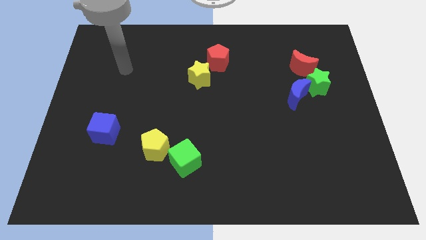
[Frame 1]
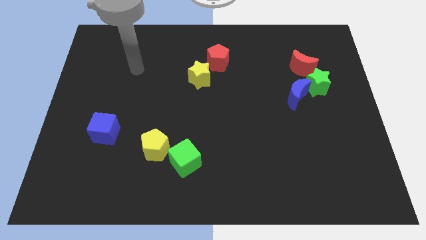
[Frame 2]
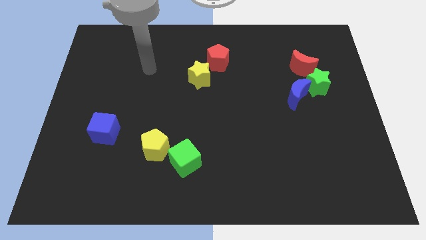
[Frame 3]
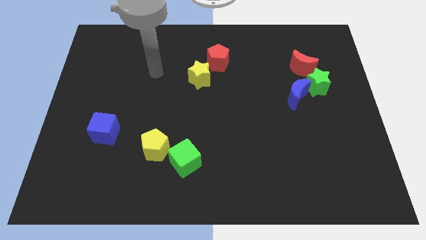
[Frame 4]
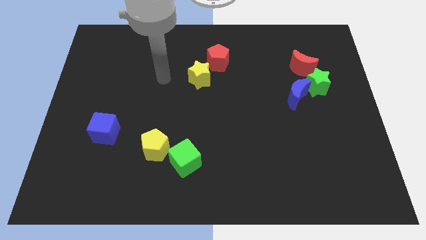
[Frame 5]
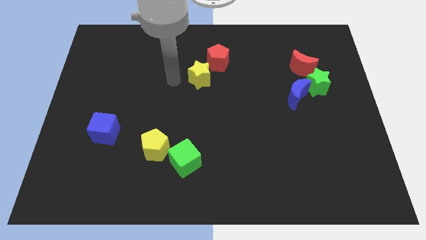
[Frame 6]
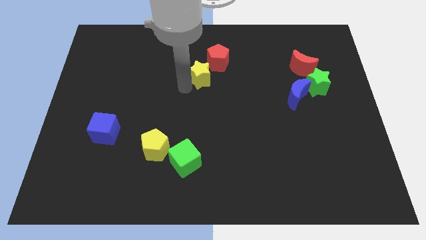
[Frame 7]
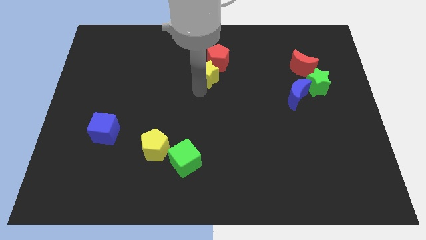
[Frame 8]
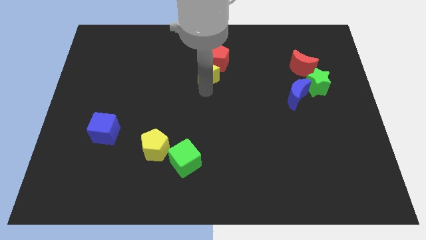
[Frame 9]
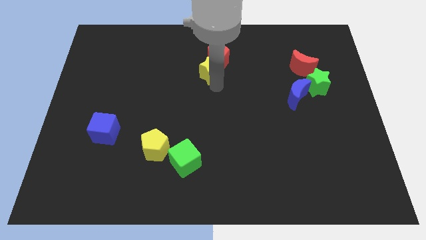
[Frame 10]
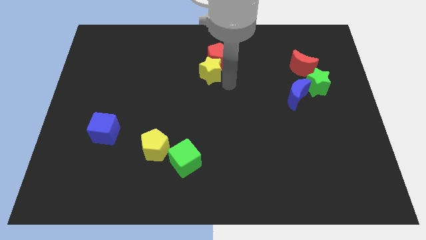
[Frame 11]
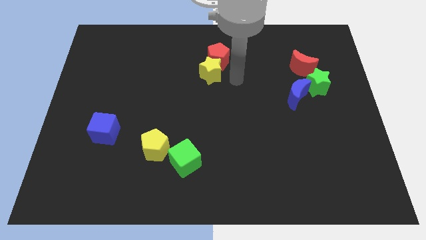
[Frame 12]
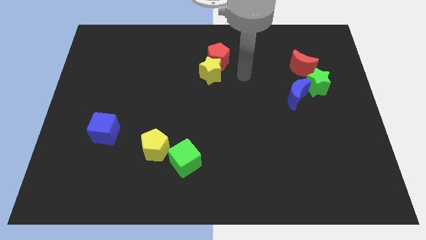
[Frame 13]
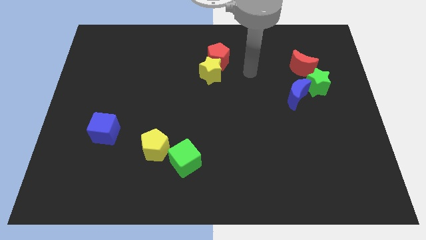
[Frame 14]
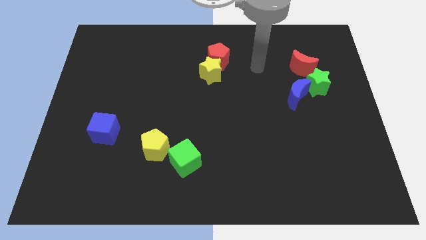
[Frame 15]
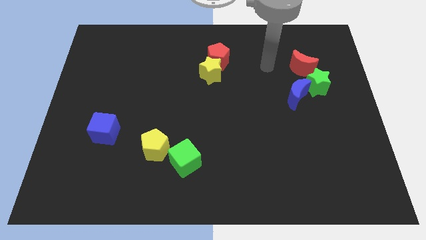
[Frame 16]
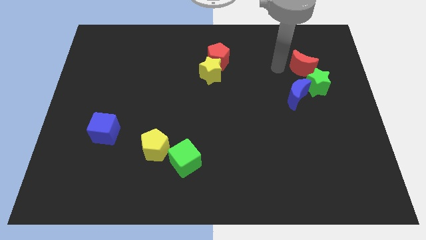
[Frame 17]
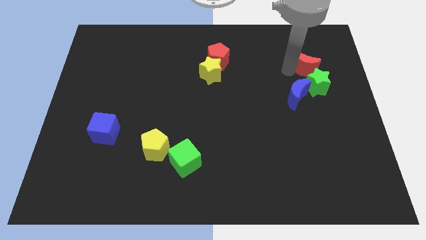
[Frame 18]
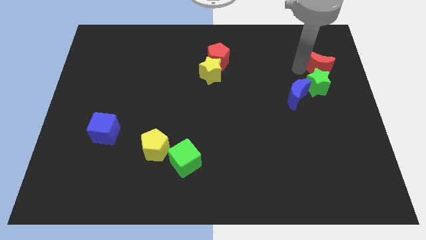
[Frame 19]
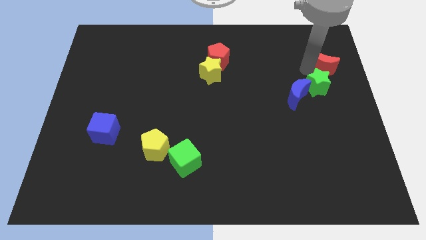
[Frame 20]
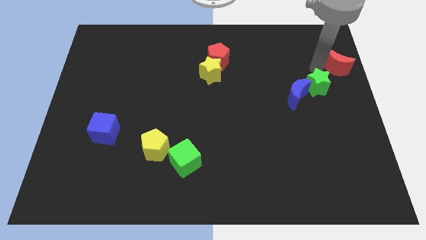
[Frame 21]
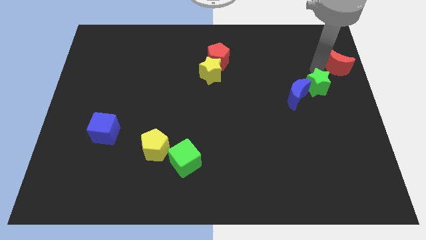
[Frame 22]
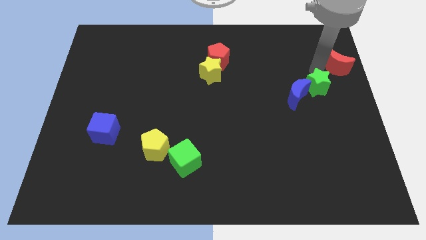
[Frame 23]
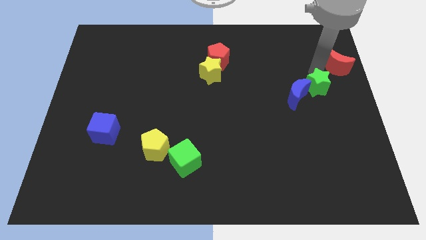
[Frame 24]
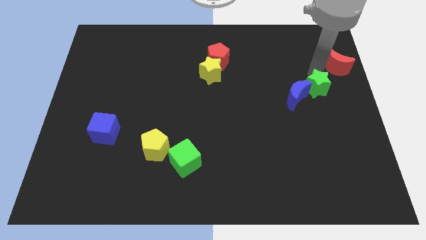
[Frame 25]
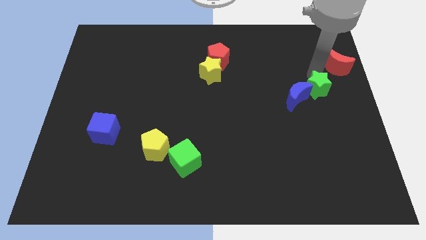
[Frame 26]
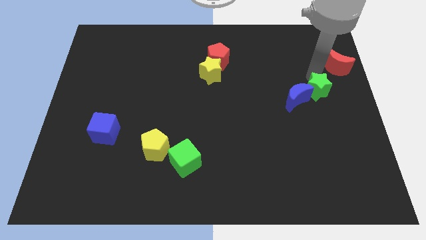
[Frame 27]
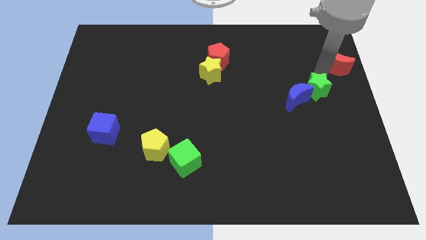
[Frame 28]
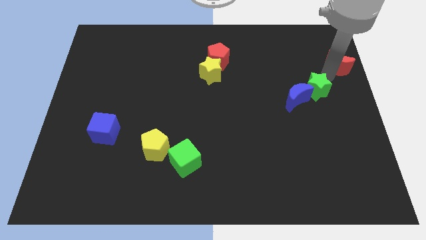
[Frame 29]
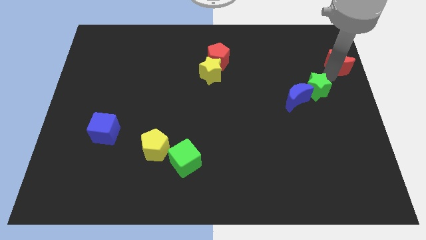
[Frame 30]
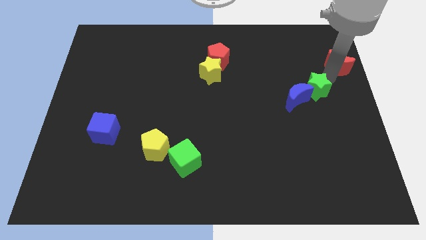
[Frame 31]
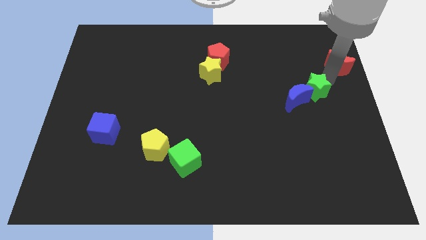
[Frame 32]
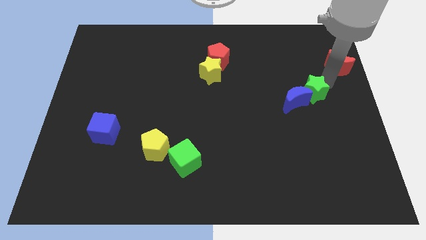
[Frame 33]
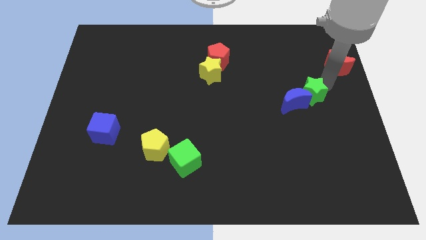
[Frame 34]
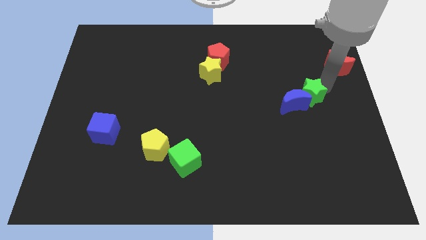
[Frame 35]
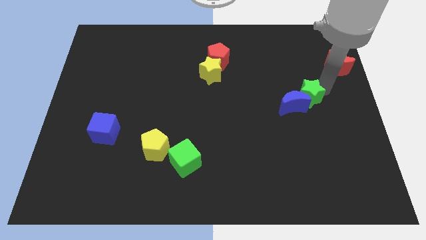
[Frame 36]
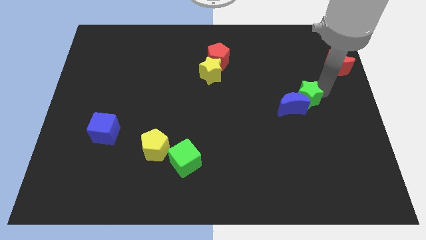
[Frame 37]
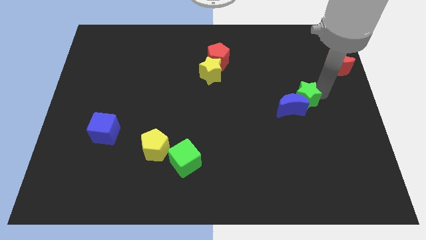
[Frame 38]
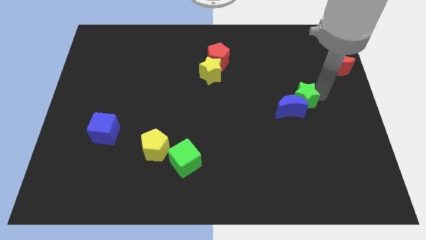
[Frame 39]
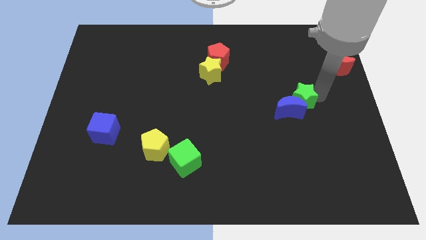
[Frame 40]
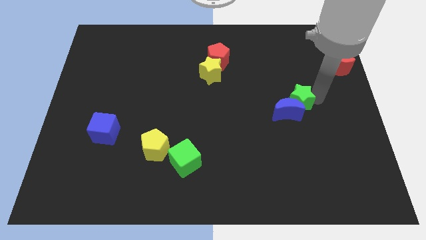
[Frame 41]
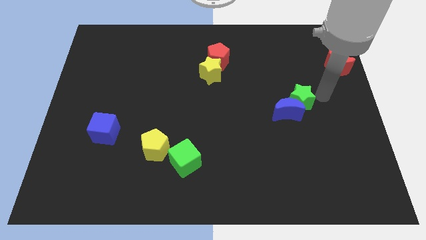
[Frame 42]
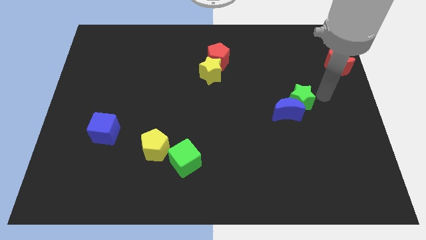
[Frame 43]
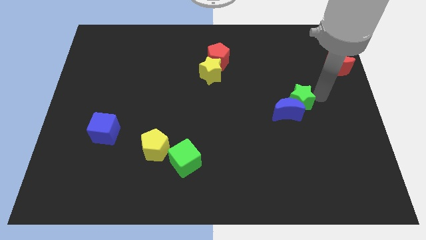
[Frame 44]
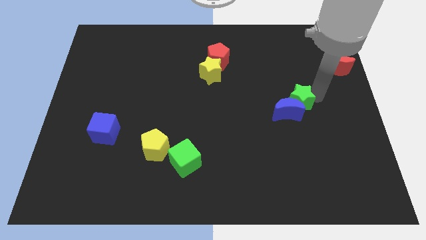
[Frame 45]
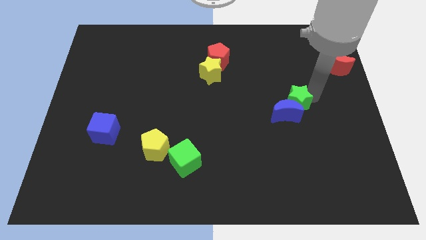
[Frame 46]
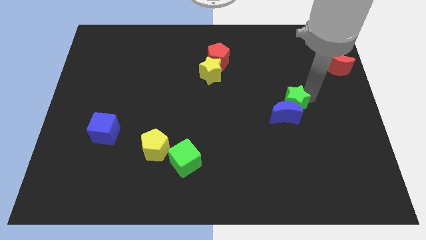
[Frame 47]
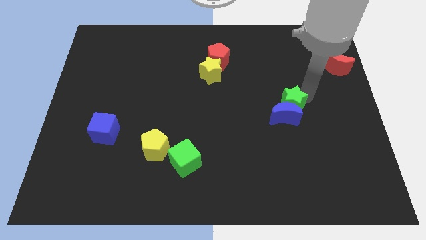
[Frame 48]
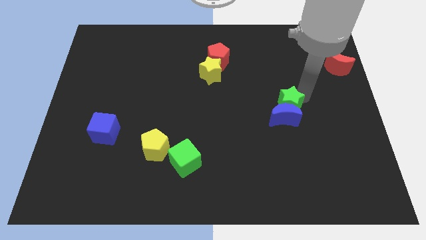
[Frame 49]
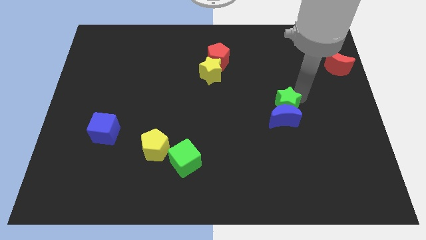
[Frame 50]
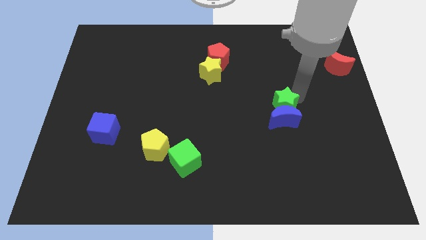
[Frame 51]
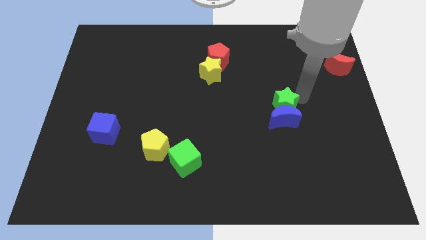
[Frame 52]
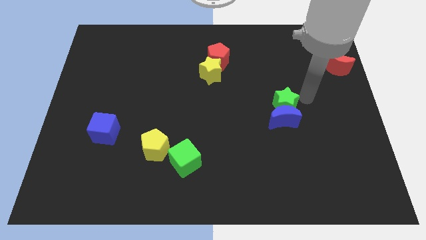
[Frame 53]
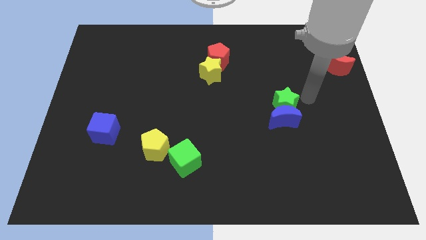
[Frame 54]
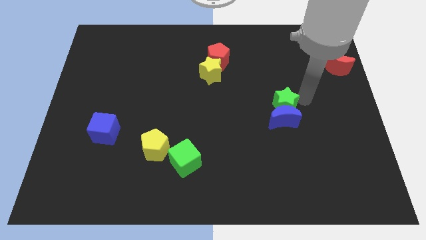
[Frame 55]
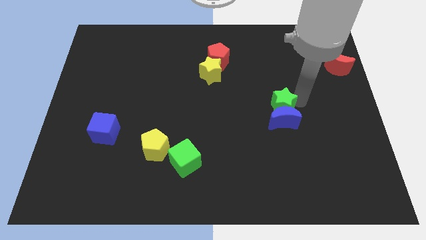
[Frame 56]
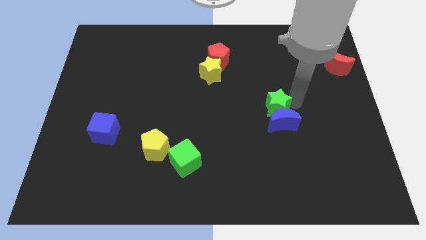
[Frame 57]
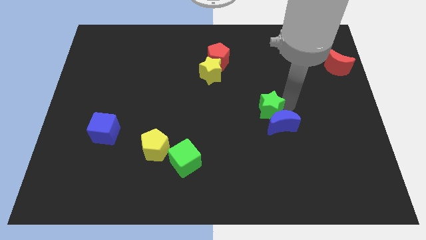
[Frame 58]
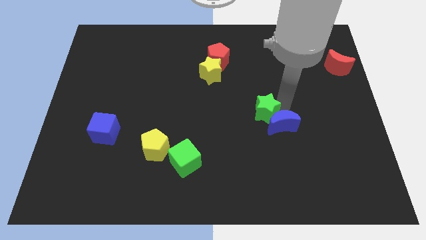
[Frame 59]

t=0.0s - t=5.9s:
move the green star to the center of the board

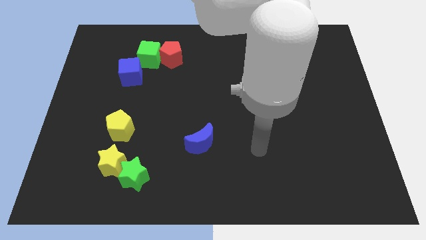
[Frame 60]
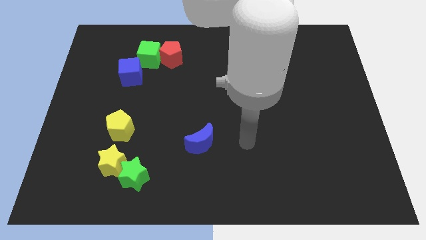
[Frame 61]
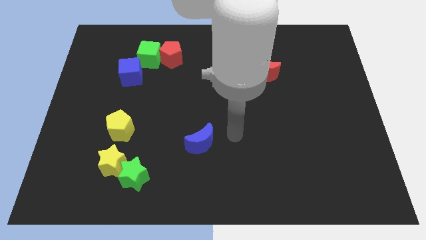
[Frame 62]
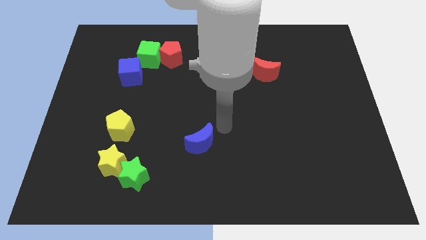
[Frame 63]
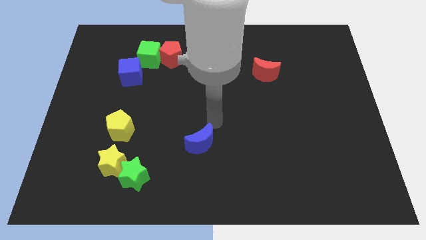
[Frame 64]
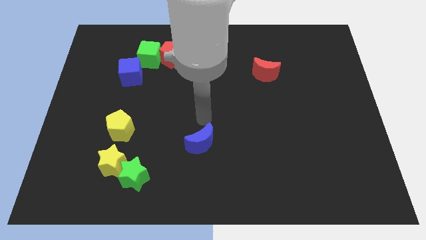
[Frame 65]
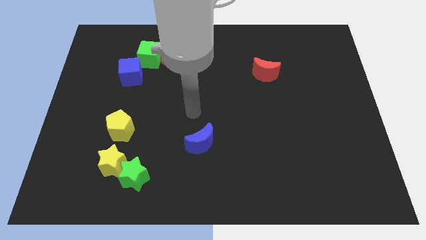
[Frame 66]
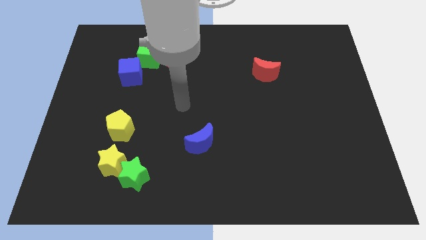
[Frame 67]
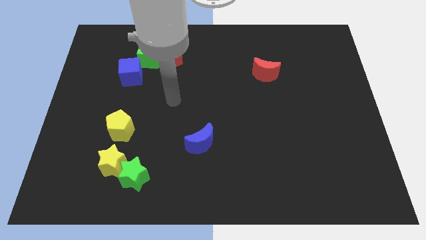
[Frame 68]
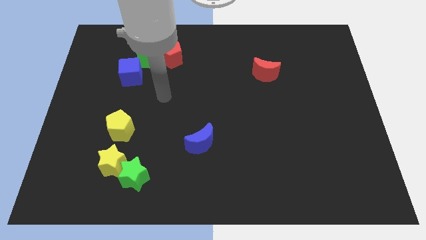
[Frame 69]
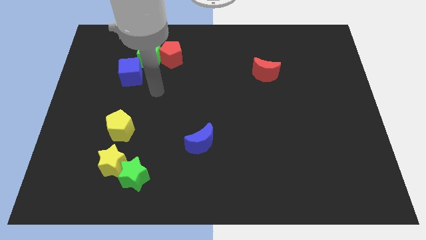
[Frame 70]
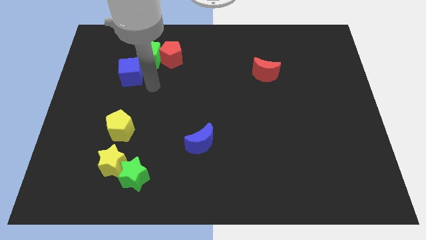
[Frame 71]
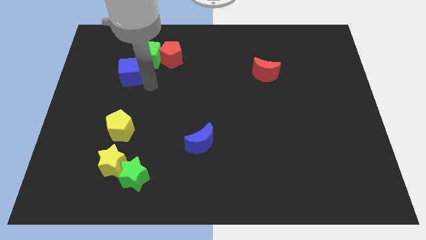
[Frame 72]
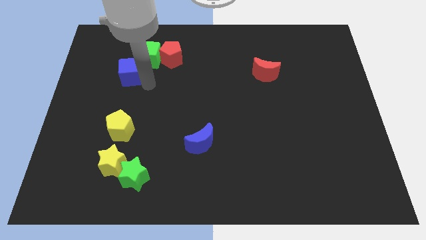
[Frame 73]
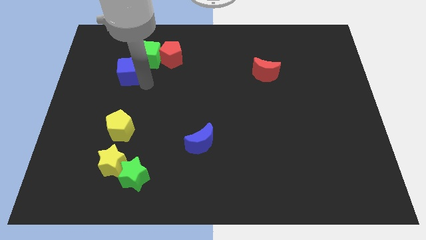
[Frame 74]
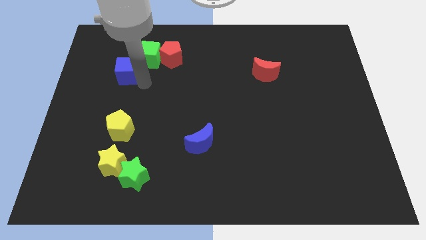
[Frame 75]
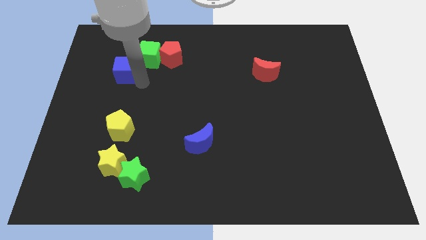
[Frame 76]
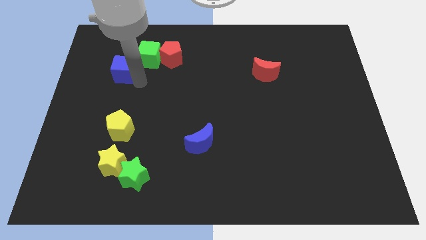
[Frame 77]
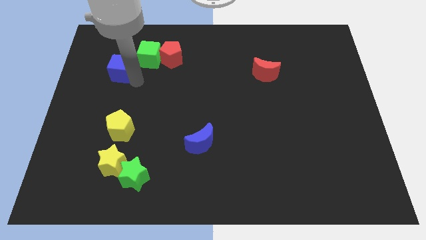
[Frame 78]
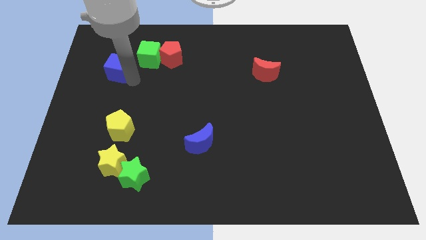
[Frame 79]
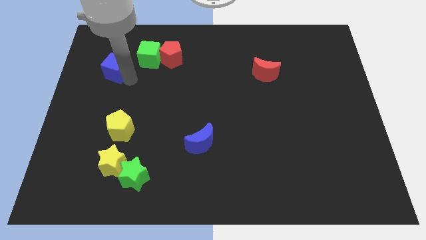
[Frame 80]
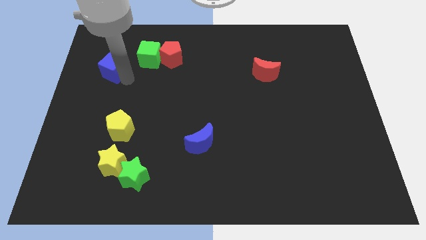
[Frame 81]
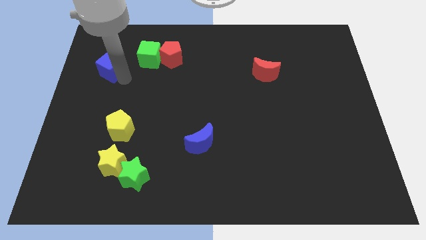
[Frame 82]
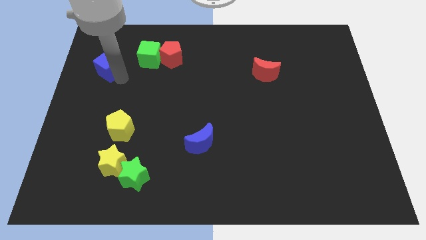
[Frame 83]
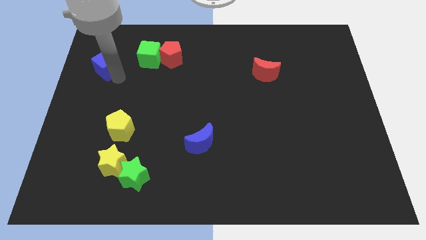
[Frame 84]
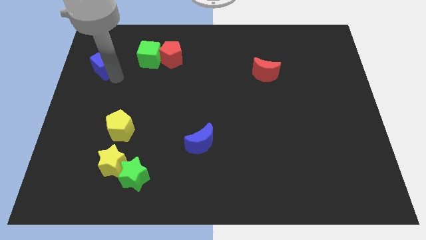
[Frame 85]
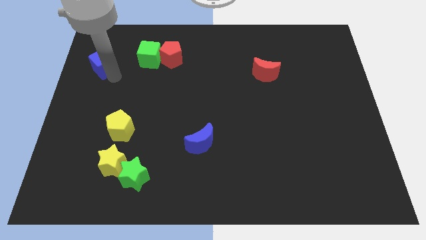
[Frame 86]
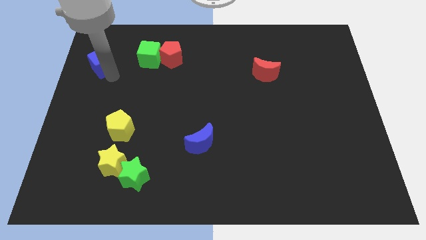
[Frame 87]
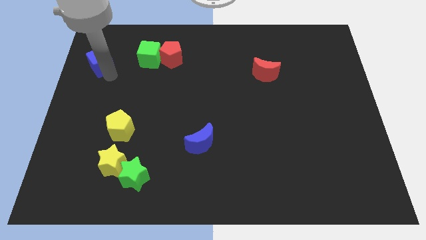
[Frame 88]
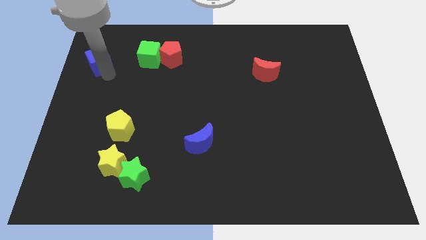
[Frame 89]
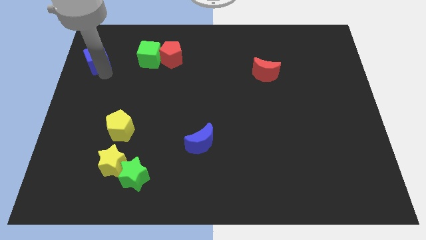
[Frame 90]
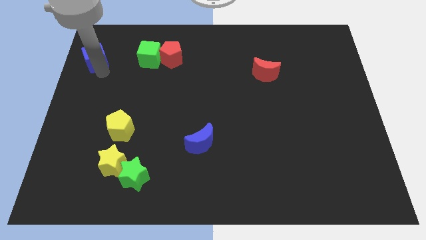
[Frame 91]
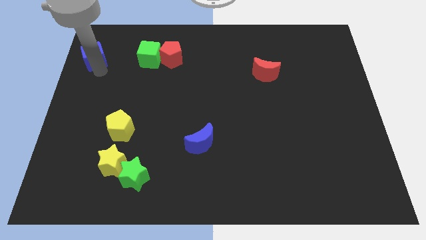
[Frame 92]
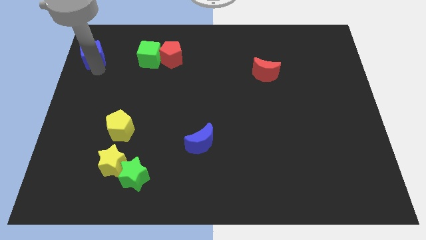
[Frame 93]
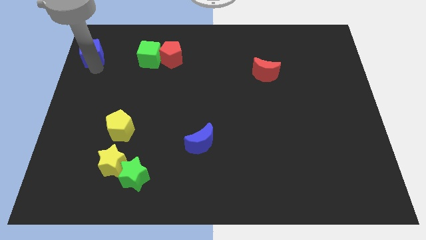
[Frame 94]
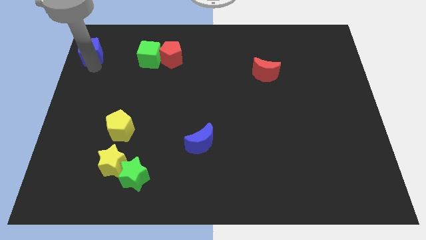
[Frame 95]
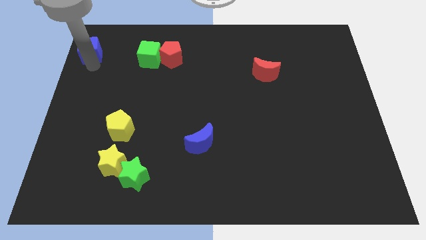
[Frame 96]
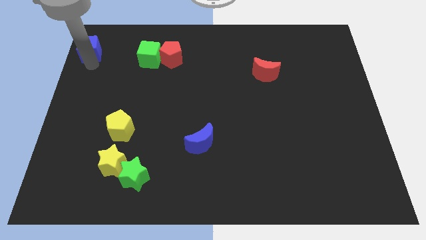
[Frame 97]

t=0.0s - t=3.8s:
slide the blue cube to the top left
